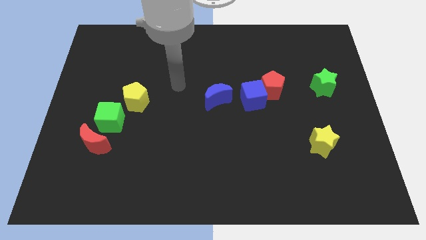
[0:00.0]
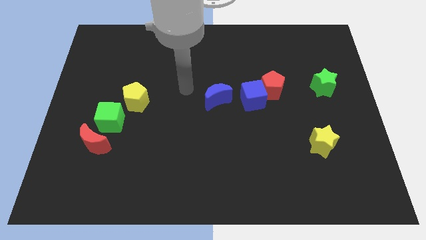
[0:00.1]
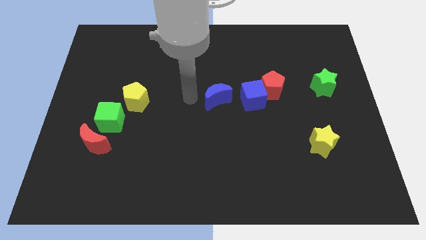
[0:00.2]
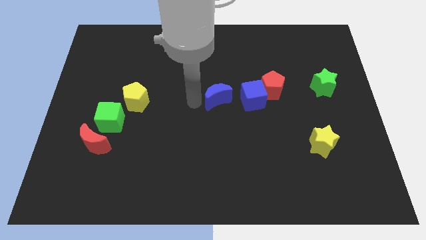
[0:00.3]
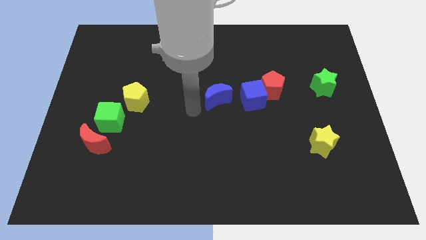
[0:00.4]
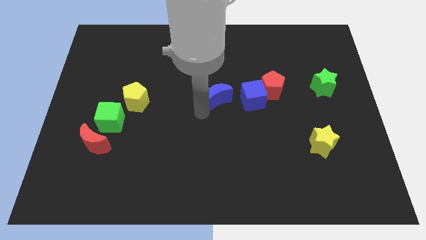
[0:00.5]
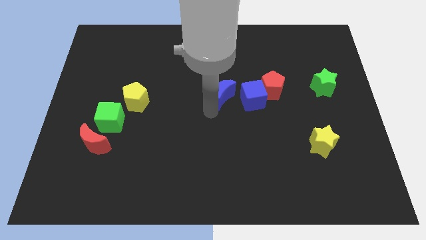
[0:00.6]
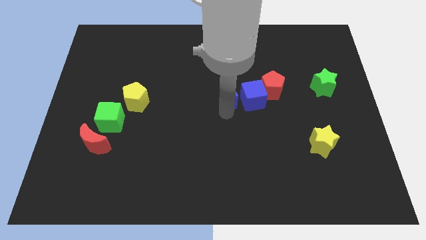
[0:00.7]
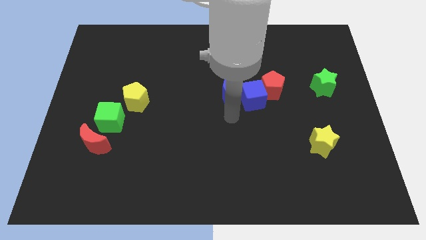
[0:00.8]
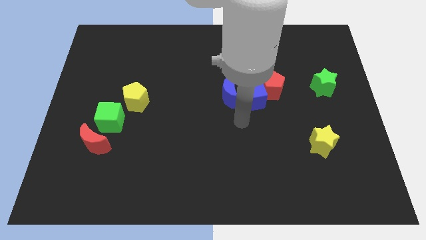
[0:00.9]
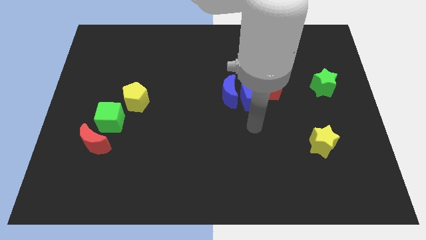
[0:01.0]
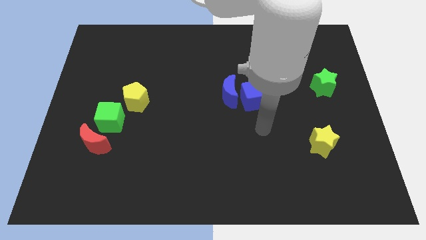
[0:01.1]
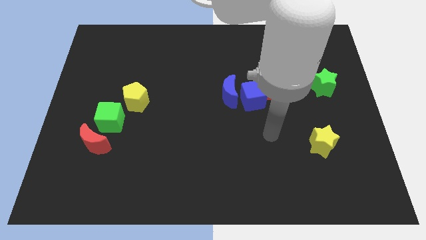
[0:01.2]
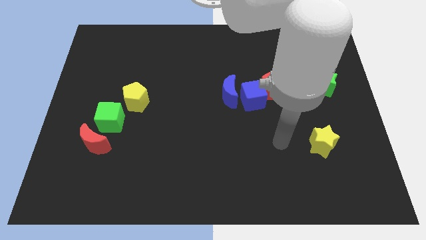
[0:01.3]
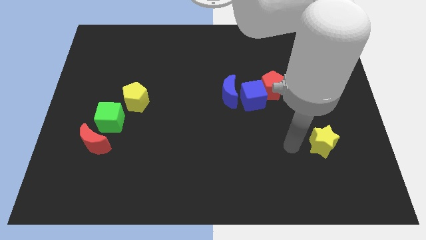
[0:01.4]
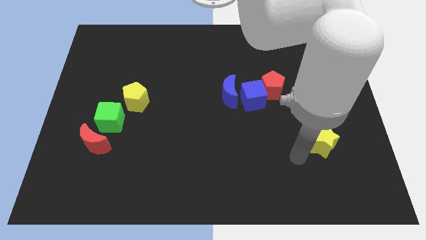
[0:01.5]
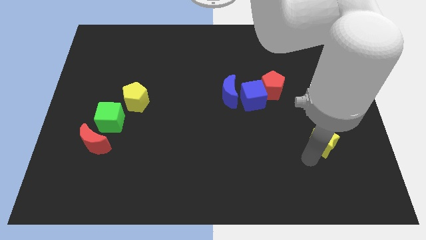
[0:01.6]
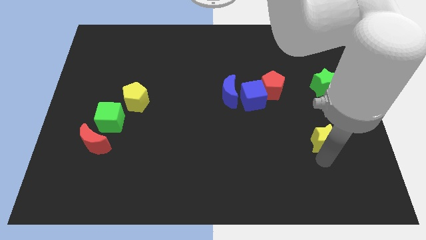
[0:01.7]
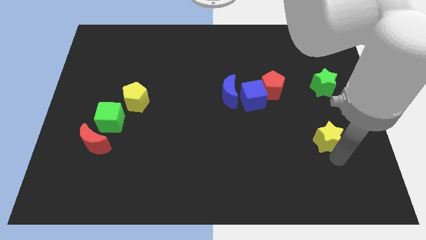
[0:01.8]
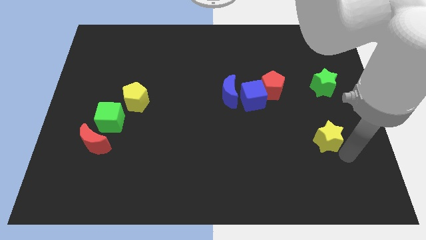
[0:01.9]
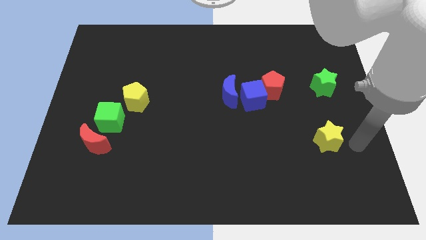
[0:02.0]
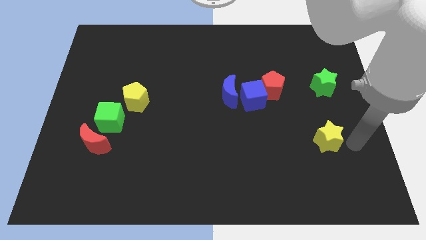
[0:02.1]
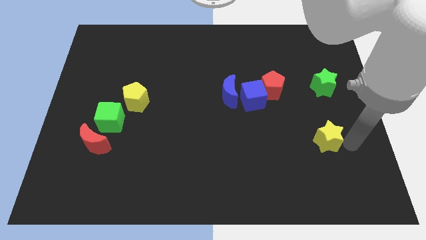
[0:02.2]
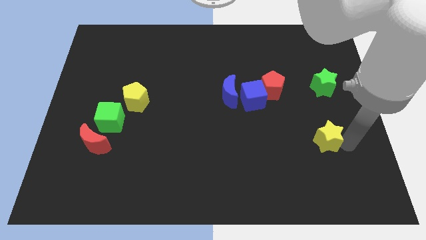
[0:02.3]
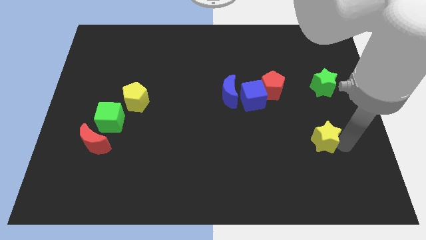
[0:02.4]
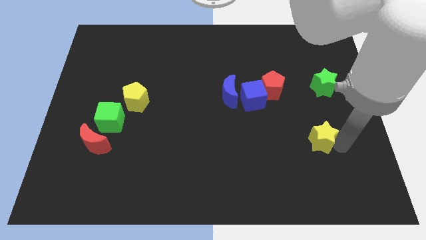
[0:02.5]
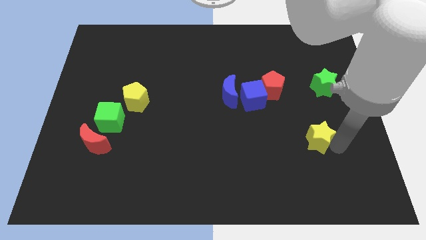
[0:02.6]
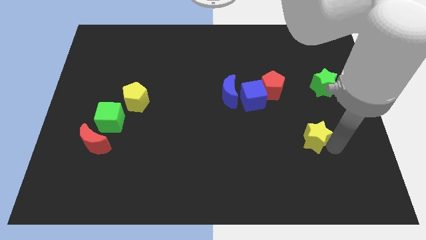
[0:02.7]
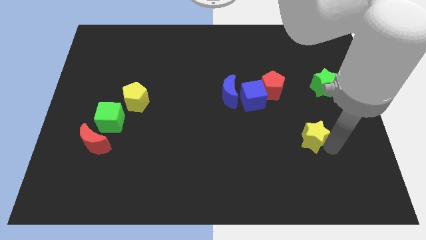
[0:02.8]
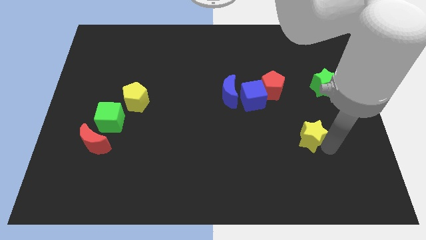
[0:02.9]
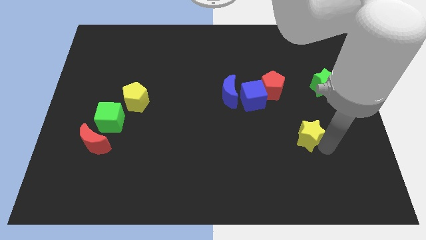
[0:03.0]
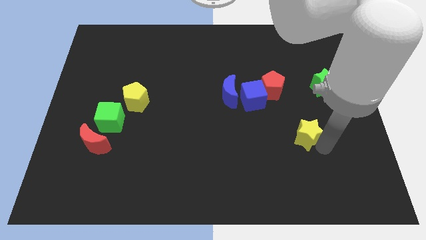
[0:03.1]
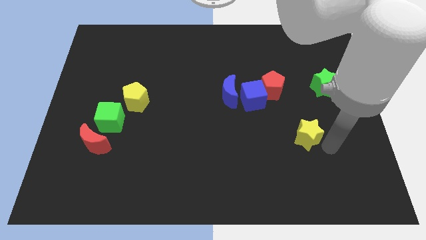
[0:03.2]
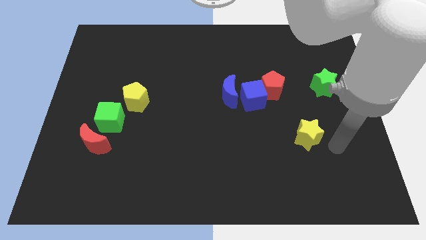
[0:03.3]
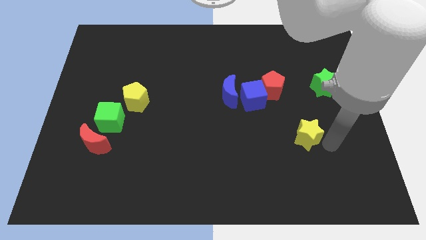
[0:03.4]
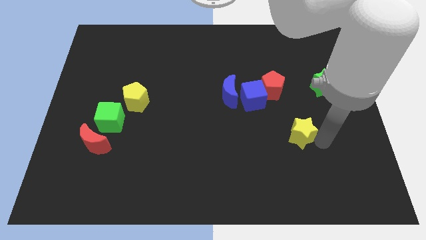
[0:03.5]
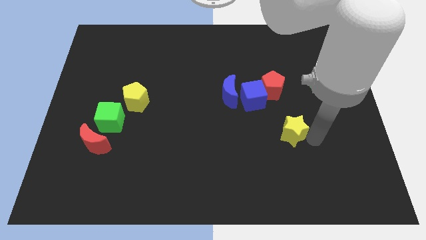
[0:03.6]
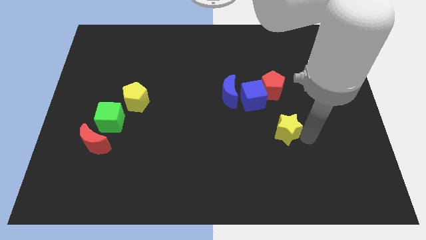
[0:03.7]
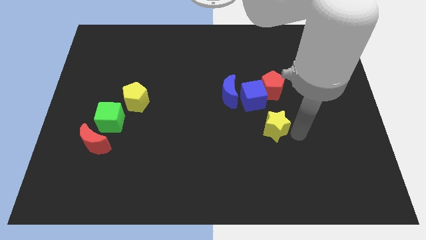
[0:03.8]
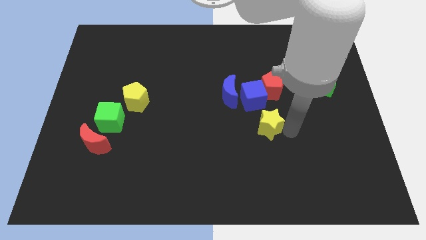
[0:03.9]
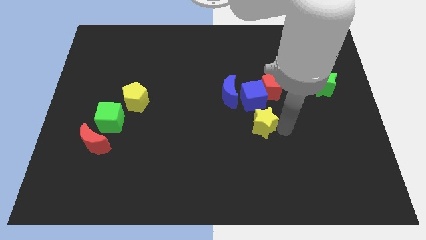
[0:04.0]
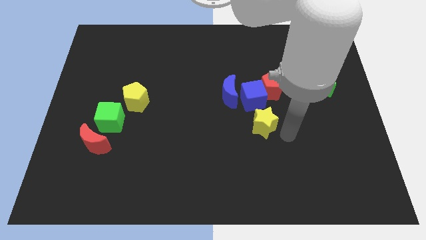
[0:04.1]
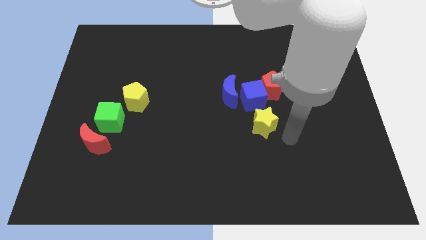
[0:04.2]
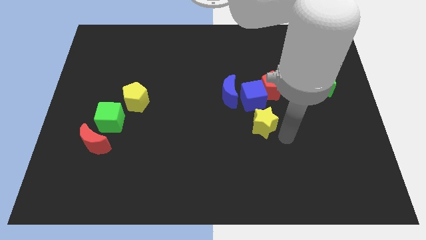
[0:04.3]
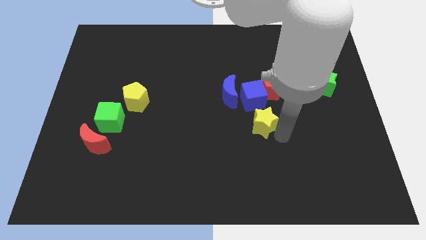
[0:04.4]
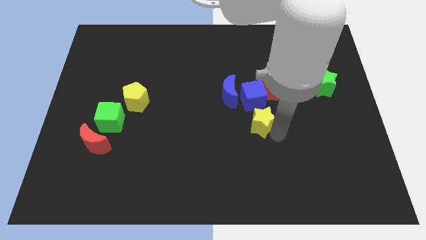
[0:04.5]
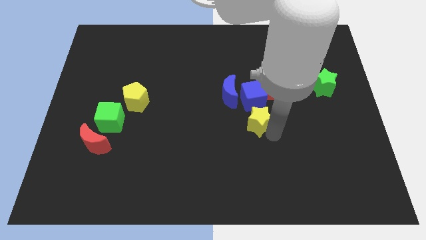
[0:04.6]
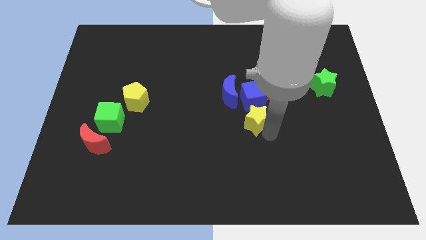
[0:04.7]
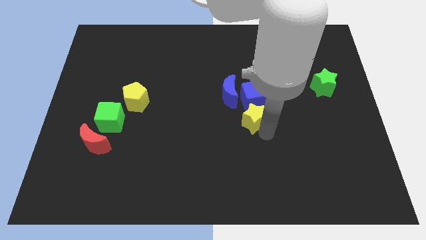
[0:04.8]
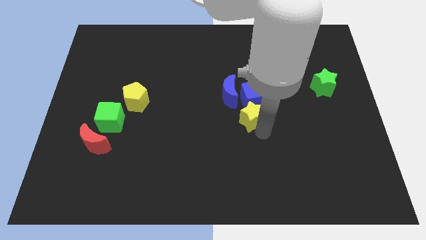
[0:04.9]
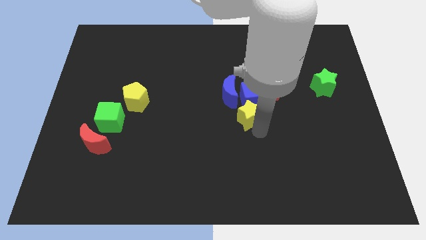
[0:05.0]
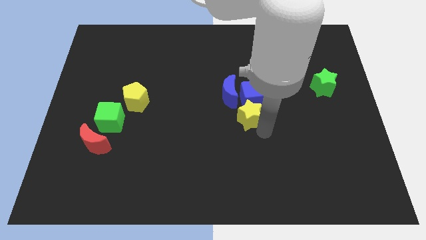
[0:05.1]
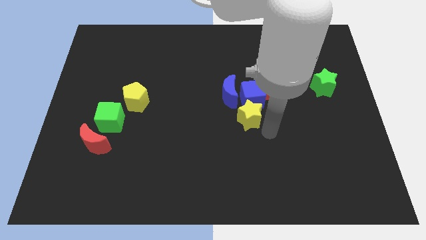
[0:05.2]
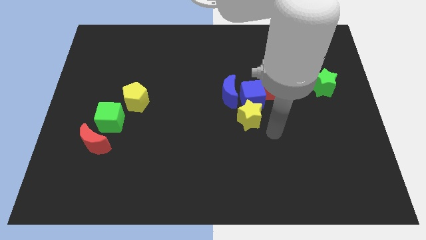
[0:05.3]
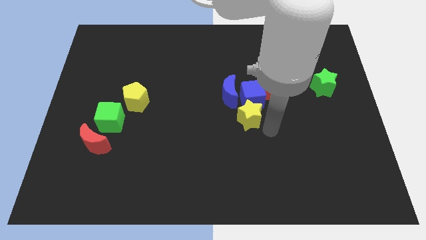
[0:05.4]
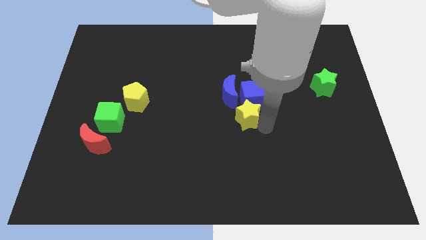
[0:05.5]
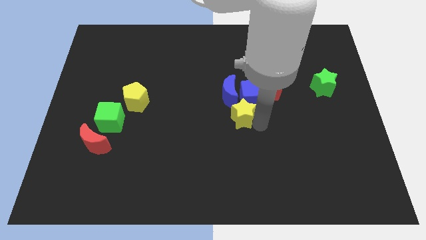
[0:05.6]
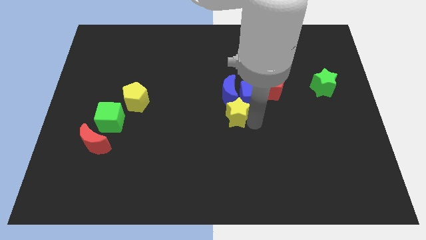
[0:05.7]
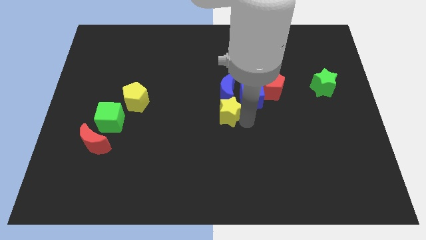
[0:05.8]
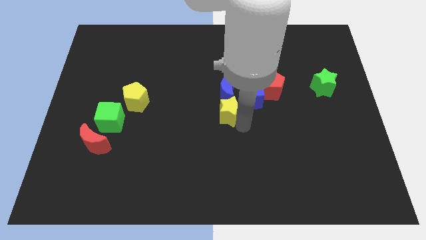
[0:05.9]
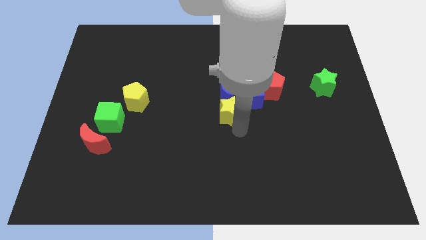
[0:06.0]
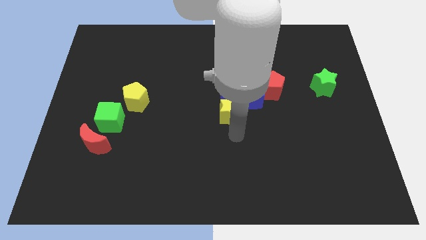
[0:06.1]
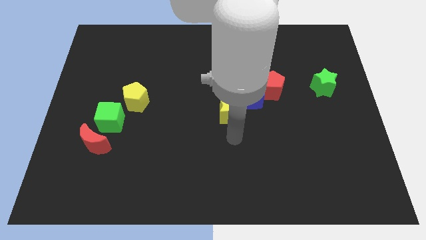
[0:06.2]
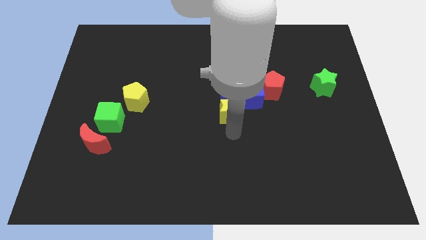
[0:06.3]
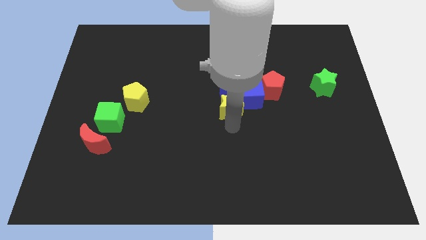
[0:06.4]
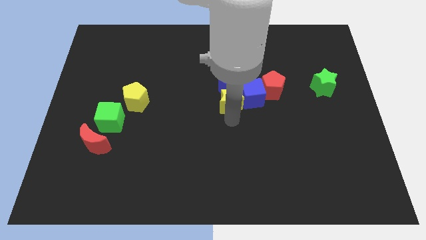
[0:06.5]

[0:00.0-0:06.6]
move the yellow star towards the blue moon

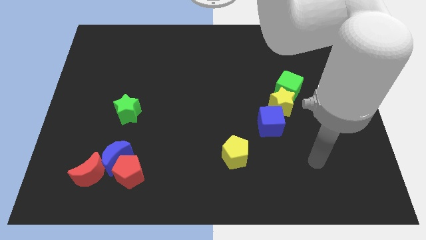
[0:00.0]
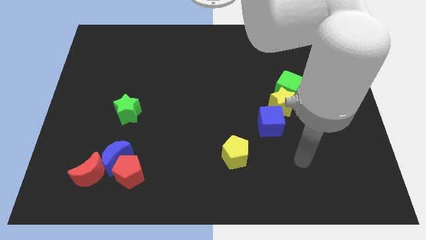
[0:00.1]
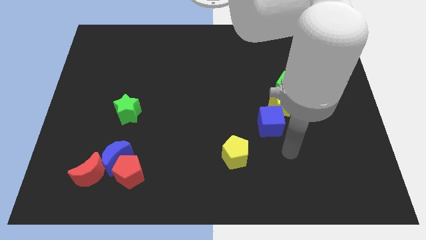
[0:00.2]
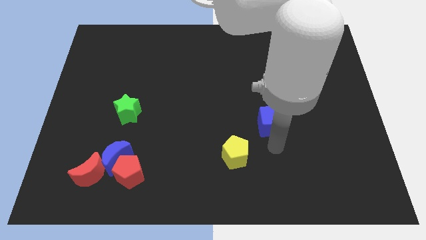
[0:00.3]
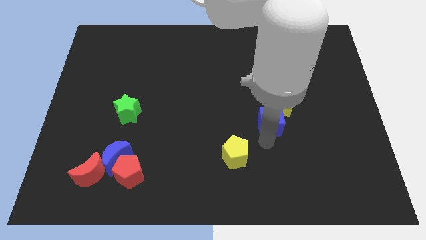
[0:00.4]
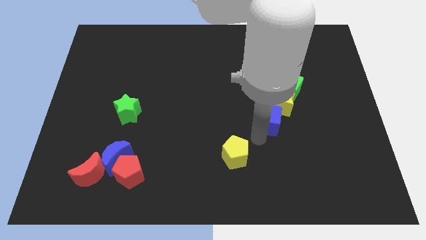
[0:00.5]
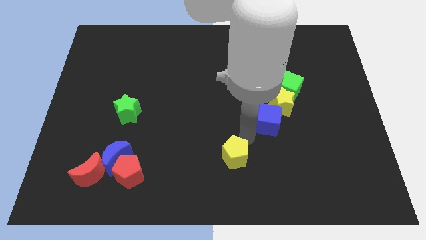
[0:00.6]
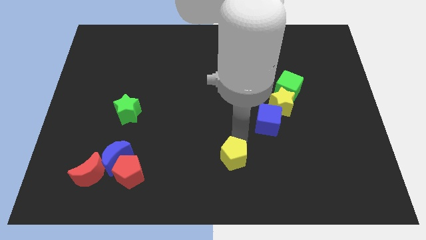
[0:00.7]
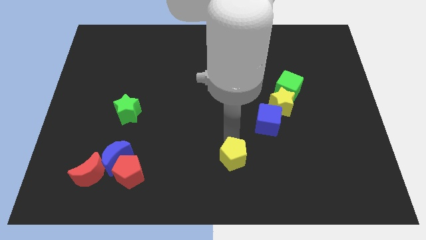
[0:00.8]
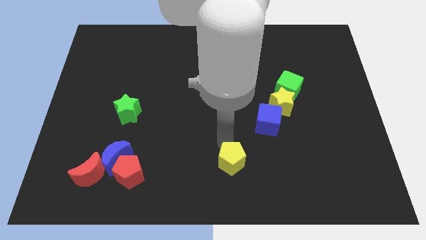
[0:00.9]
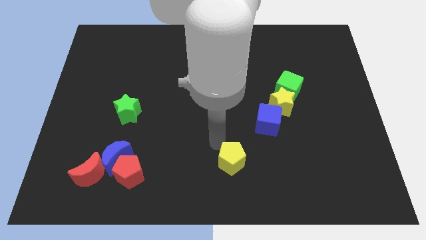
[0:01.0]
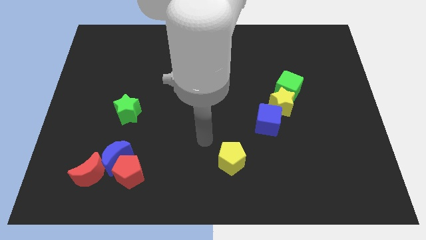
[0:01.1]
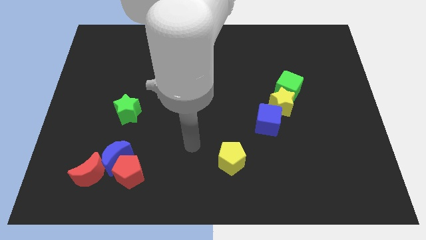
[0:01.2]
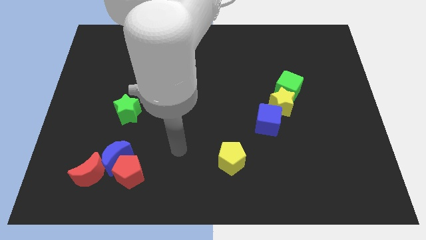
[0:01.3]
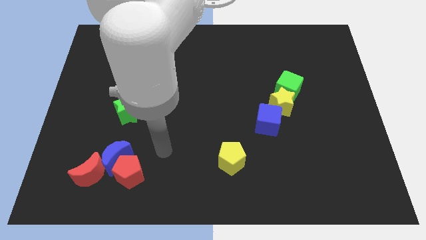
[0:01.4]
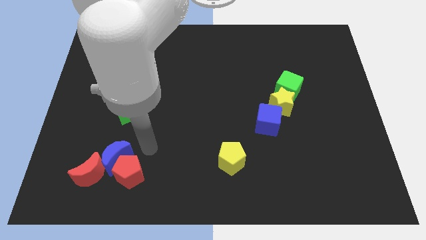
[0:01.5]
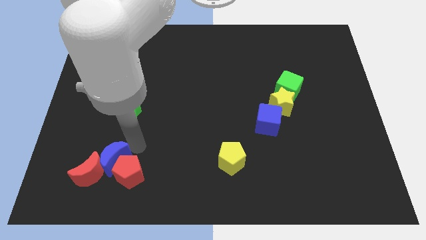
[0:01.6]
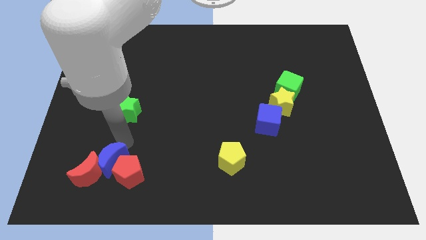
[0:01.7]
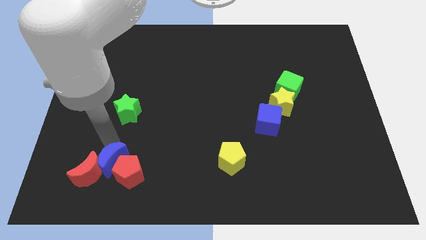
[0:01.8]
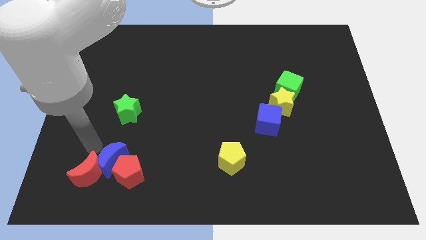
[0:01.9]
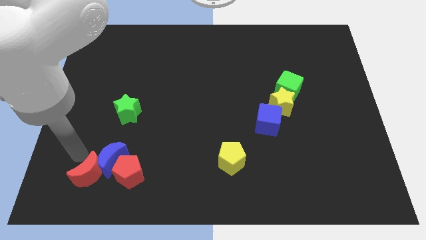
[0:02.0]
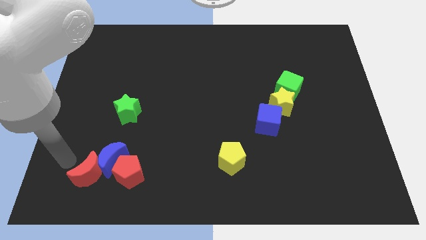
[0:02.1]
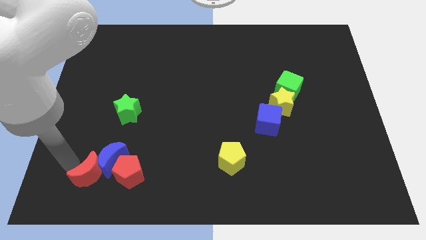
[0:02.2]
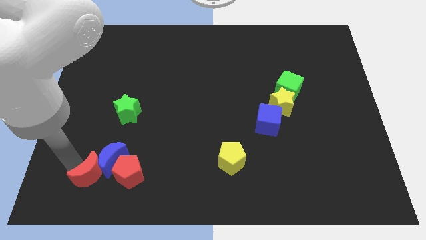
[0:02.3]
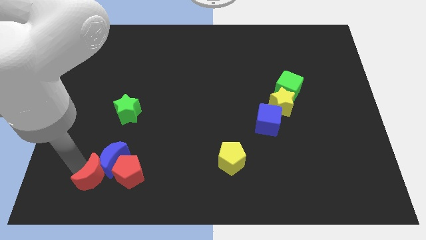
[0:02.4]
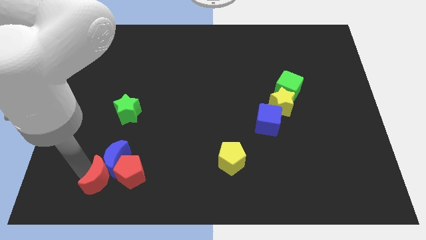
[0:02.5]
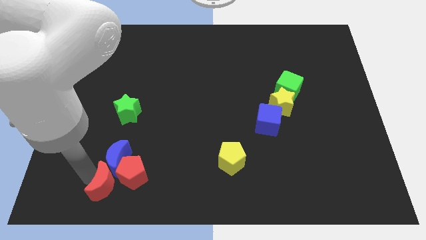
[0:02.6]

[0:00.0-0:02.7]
move the red moon towards the red pentagon
